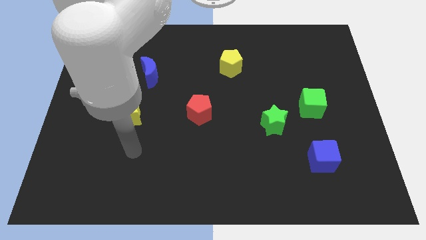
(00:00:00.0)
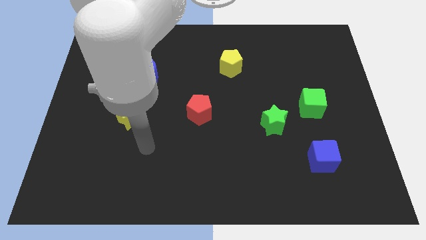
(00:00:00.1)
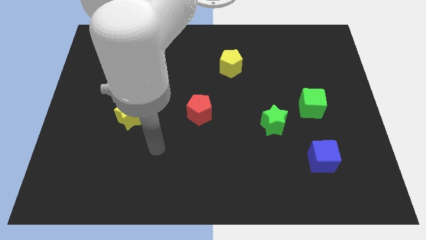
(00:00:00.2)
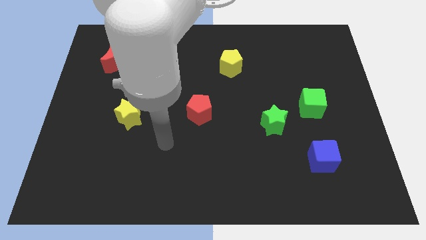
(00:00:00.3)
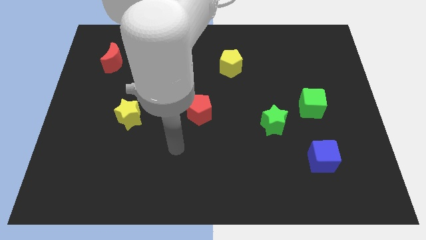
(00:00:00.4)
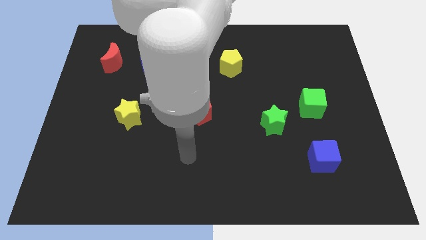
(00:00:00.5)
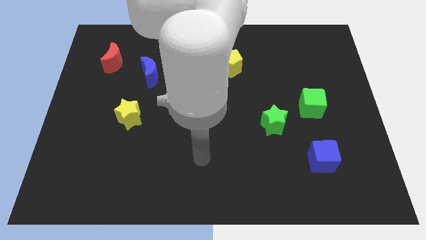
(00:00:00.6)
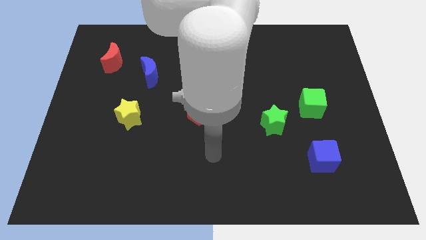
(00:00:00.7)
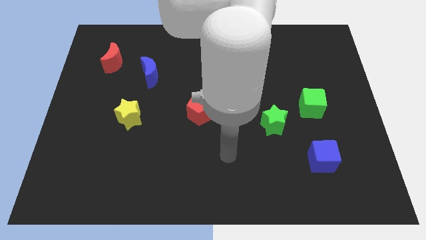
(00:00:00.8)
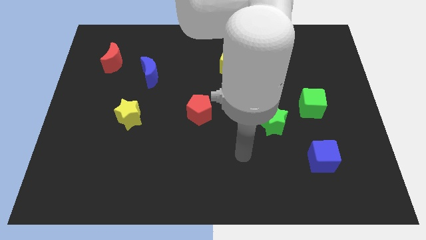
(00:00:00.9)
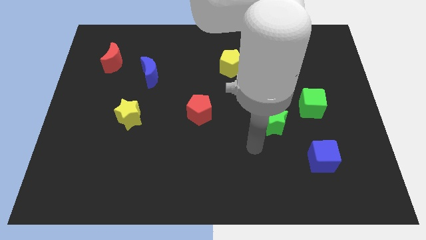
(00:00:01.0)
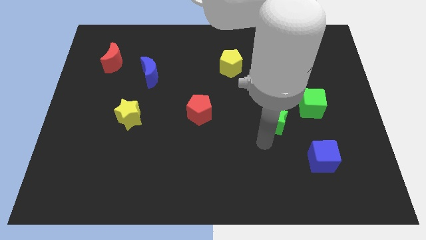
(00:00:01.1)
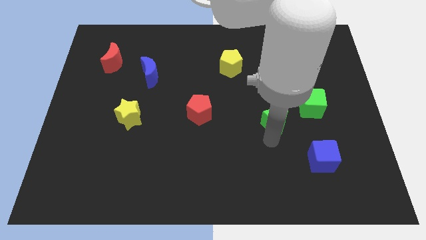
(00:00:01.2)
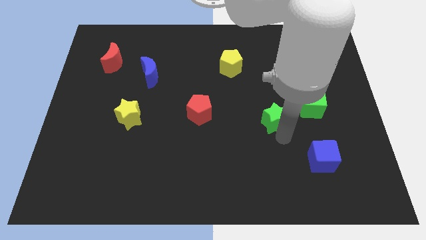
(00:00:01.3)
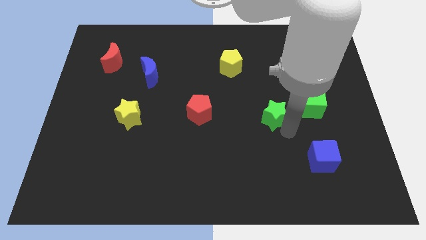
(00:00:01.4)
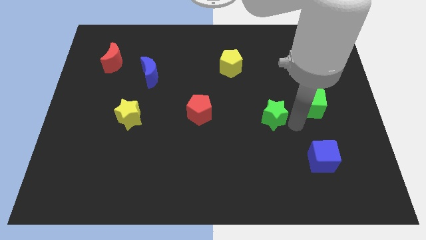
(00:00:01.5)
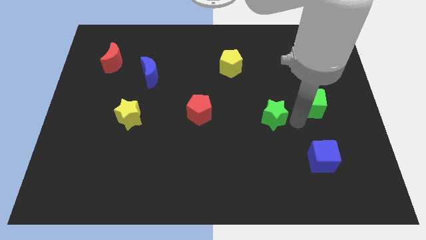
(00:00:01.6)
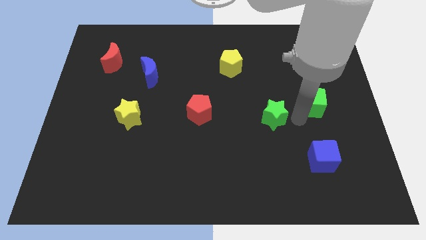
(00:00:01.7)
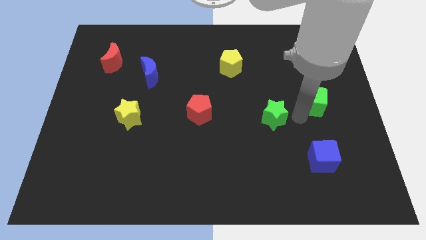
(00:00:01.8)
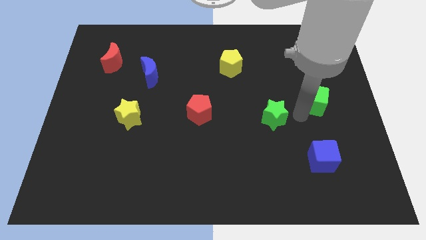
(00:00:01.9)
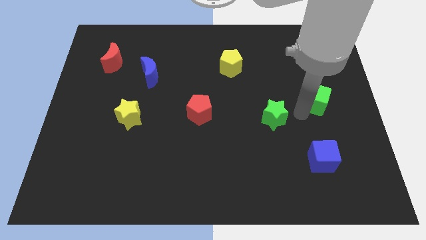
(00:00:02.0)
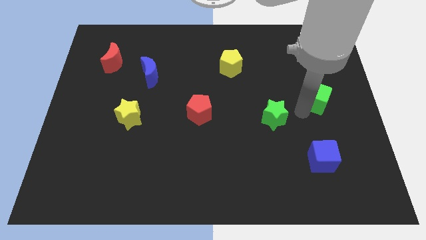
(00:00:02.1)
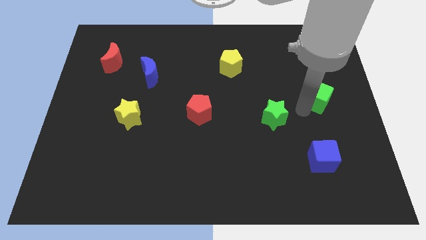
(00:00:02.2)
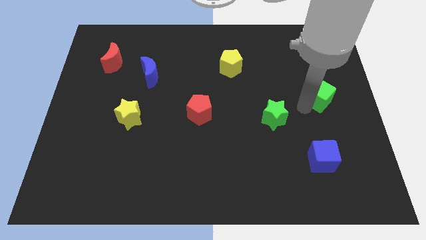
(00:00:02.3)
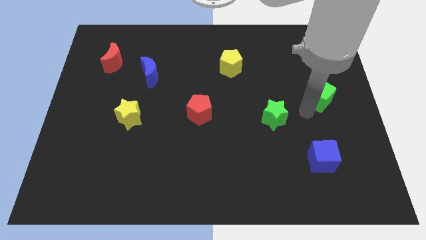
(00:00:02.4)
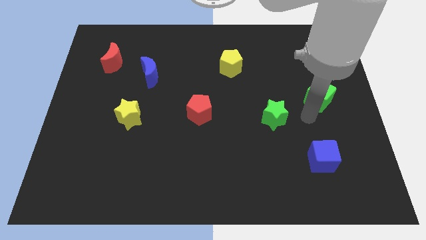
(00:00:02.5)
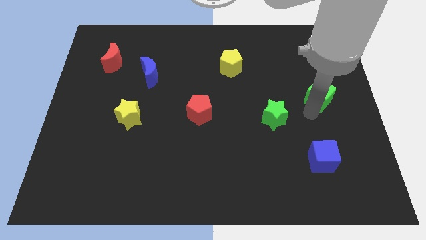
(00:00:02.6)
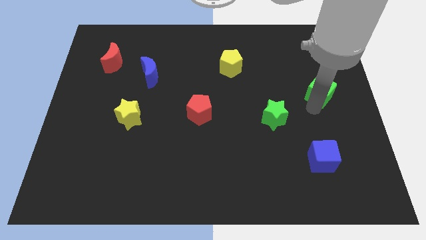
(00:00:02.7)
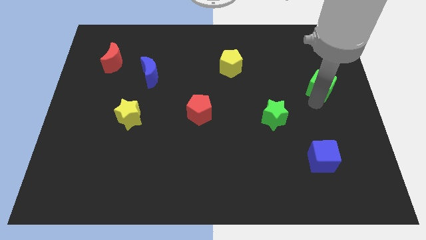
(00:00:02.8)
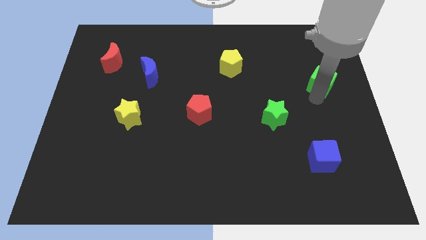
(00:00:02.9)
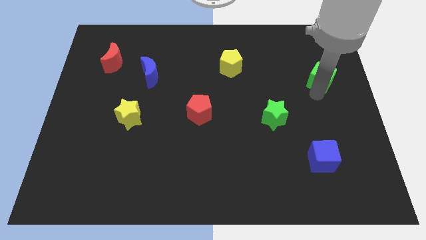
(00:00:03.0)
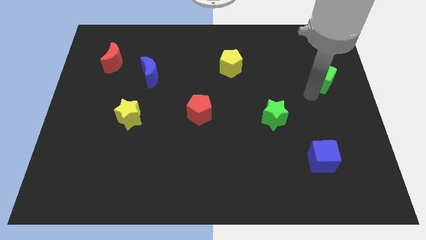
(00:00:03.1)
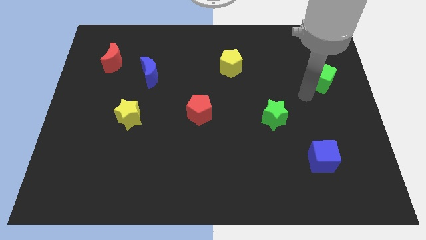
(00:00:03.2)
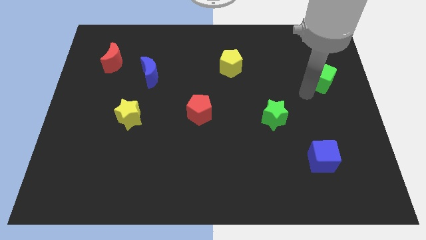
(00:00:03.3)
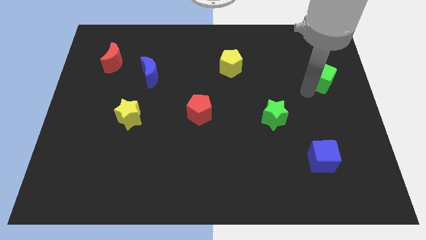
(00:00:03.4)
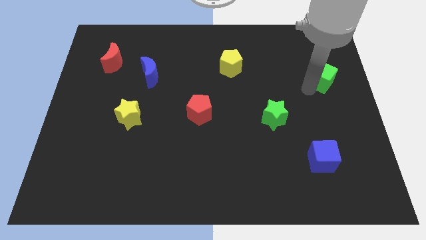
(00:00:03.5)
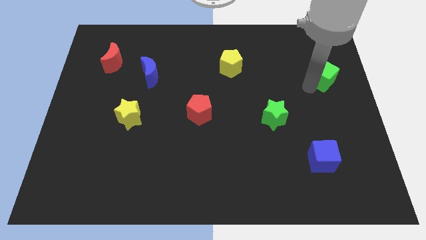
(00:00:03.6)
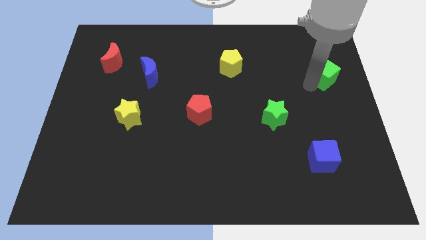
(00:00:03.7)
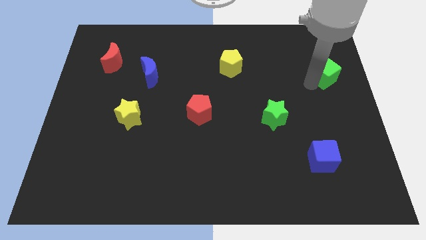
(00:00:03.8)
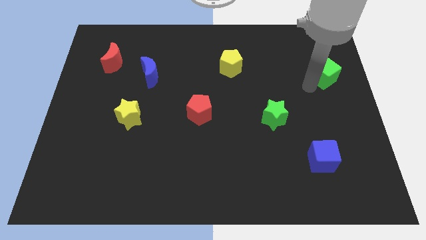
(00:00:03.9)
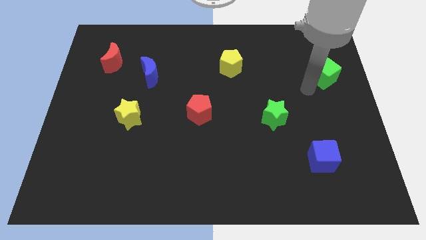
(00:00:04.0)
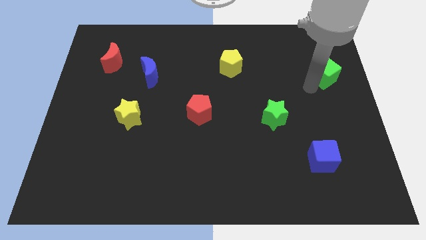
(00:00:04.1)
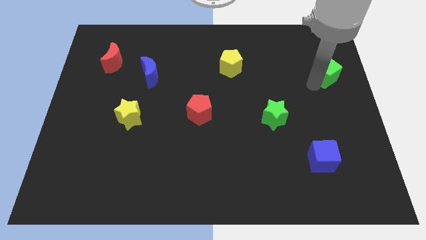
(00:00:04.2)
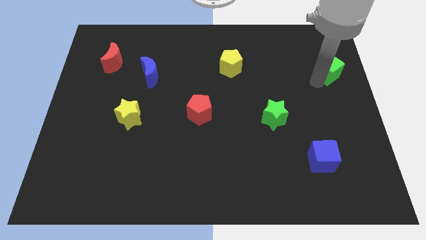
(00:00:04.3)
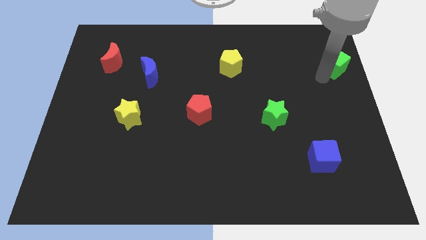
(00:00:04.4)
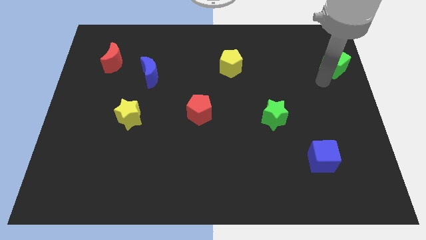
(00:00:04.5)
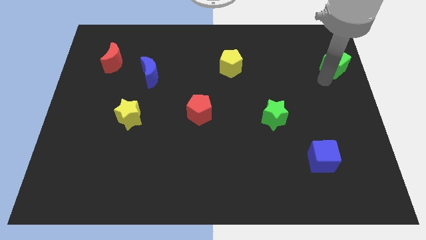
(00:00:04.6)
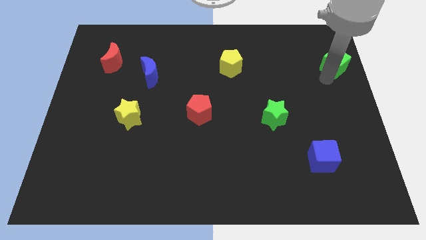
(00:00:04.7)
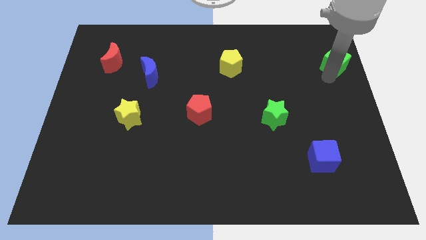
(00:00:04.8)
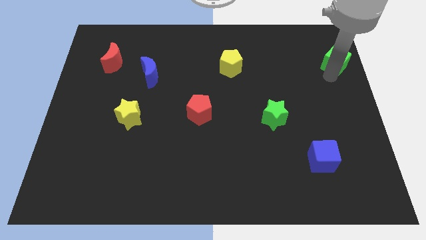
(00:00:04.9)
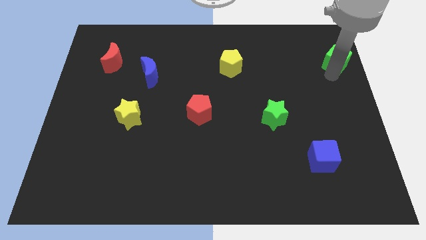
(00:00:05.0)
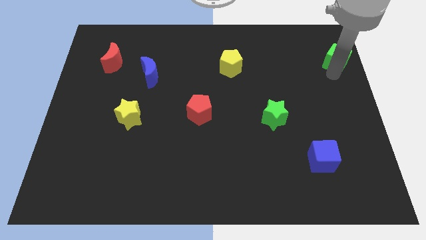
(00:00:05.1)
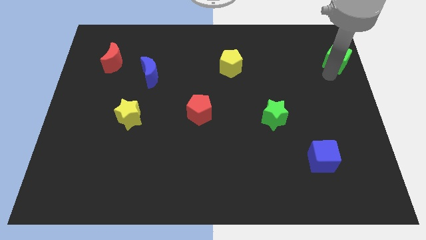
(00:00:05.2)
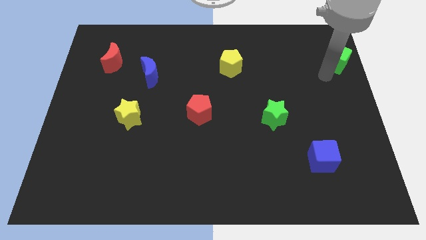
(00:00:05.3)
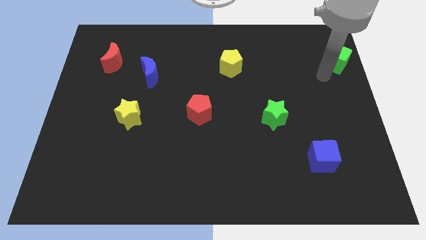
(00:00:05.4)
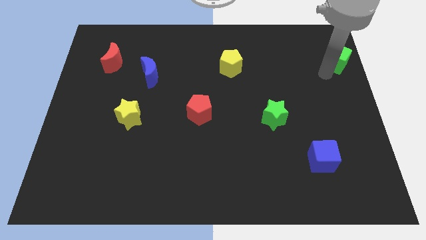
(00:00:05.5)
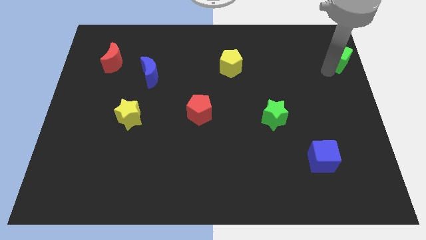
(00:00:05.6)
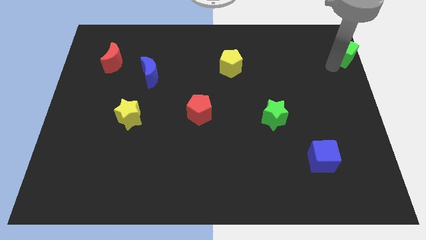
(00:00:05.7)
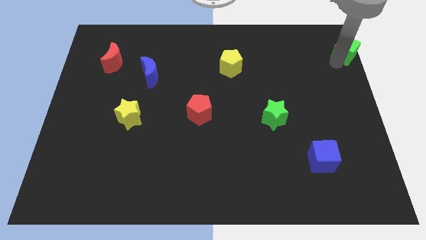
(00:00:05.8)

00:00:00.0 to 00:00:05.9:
move the green cube to the top right corner
